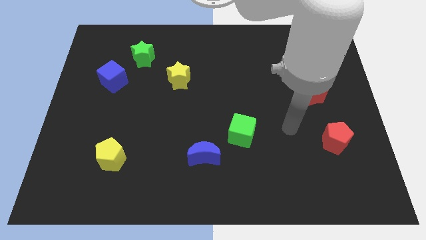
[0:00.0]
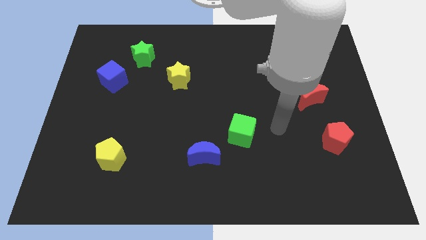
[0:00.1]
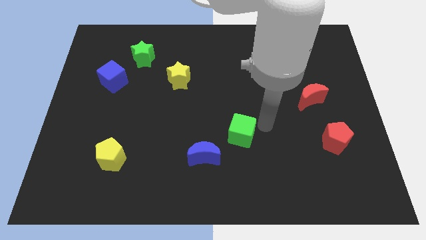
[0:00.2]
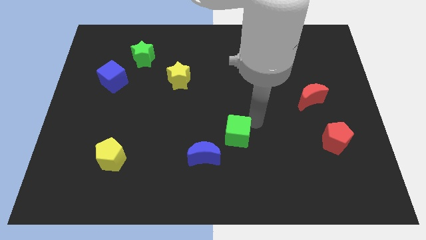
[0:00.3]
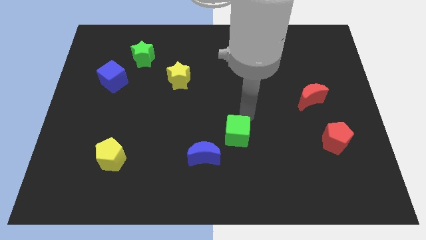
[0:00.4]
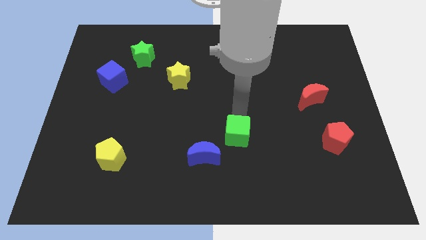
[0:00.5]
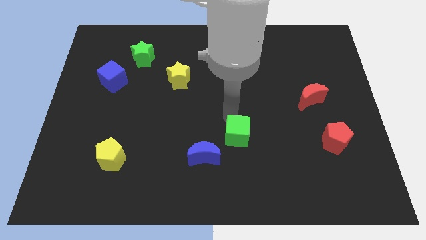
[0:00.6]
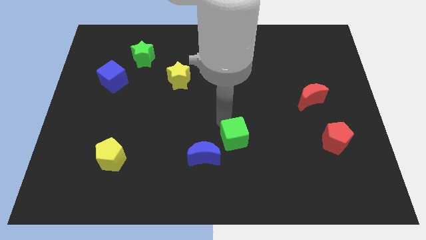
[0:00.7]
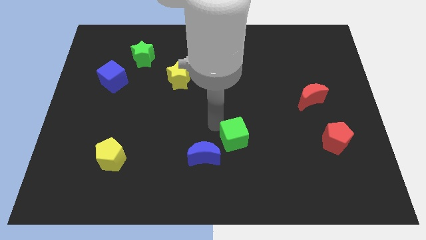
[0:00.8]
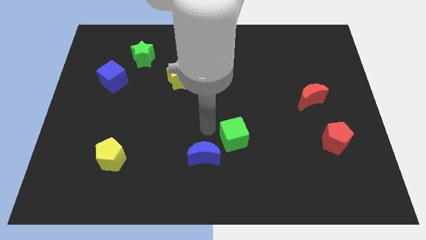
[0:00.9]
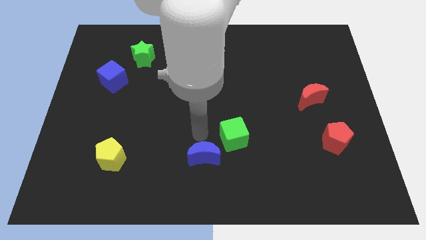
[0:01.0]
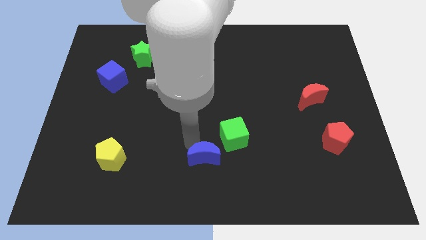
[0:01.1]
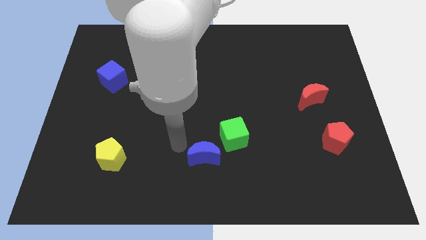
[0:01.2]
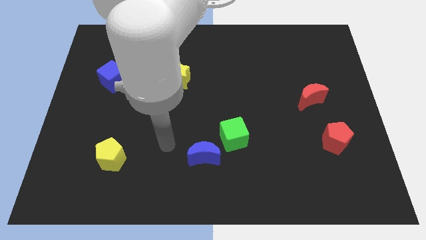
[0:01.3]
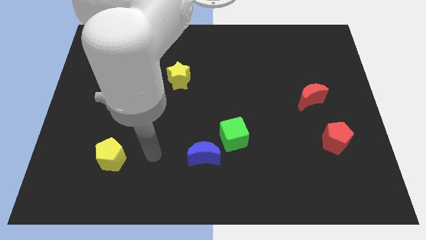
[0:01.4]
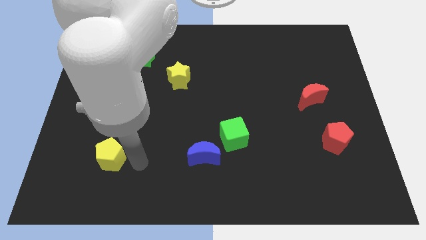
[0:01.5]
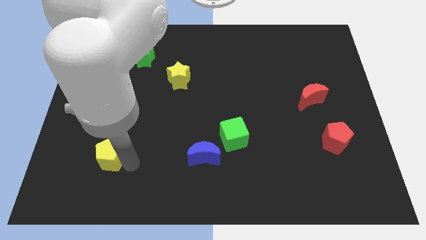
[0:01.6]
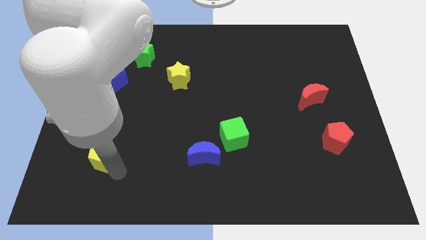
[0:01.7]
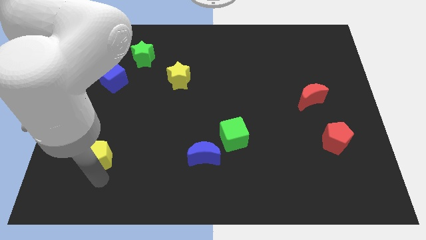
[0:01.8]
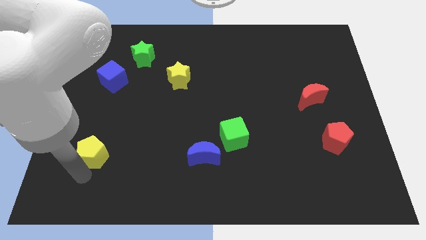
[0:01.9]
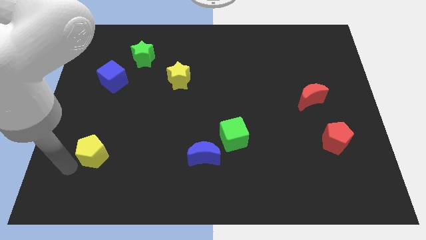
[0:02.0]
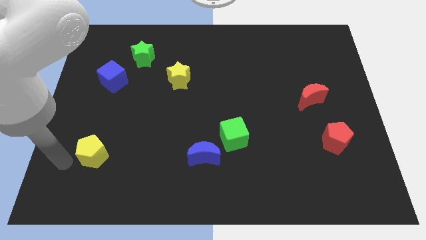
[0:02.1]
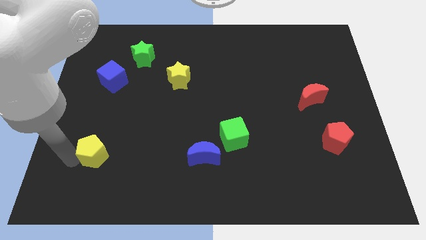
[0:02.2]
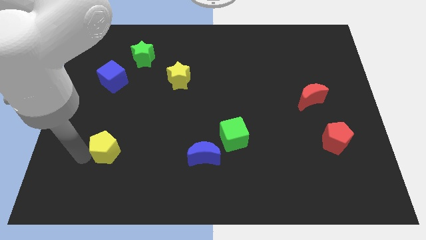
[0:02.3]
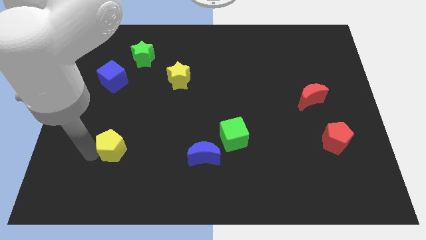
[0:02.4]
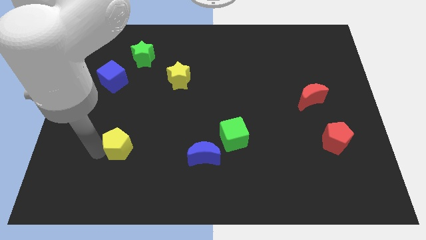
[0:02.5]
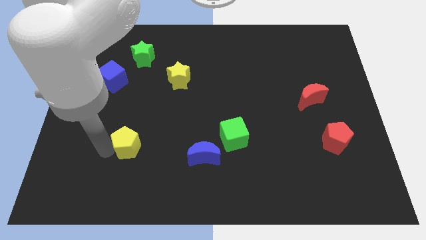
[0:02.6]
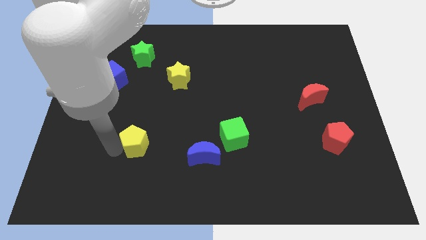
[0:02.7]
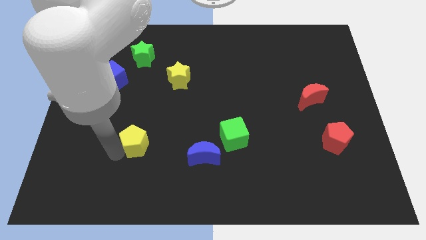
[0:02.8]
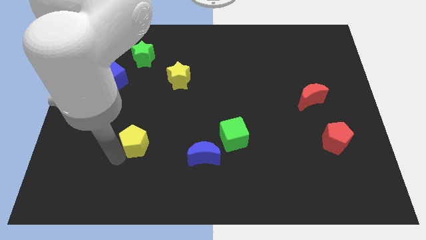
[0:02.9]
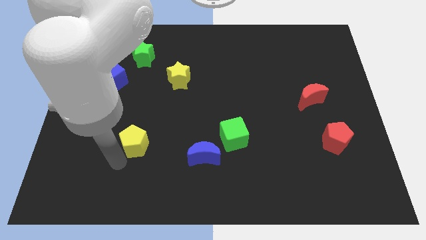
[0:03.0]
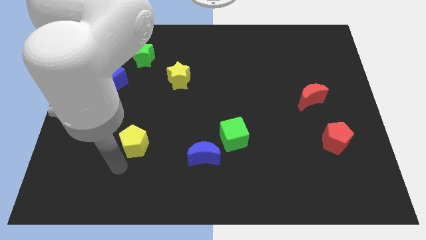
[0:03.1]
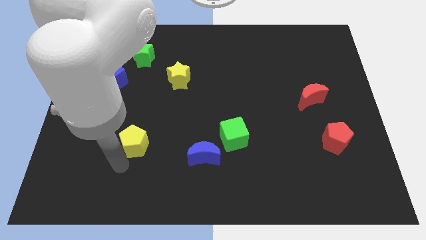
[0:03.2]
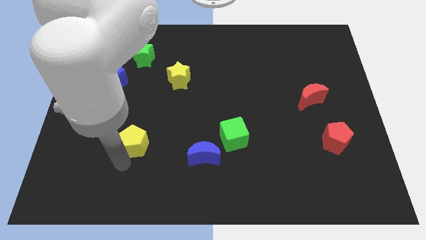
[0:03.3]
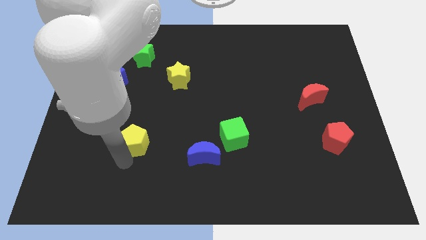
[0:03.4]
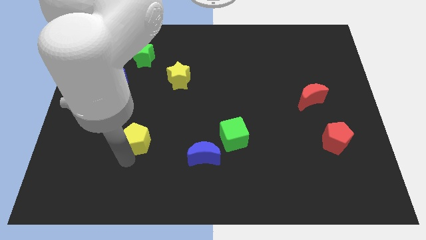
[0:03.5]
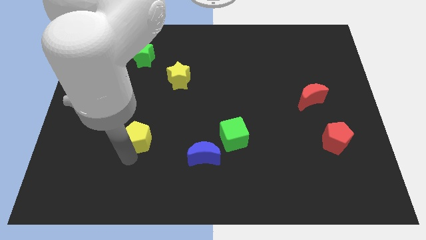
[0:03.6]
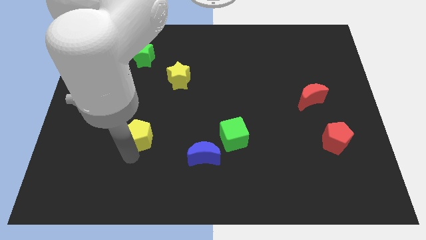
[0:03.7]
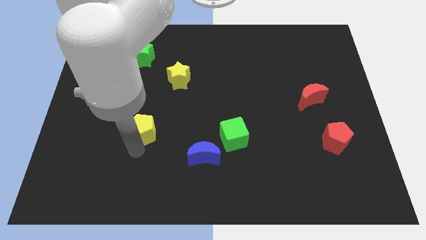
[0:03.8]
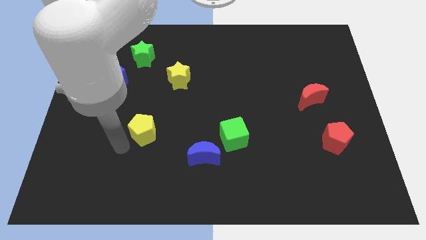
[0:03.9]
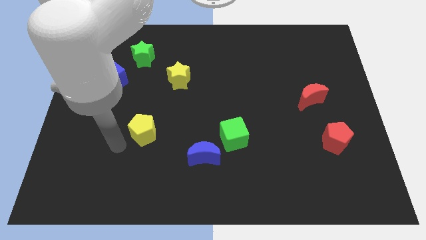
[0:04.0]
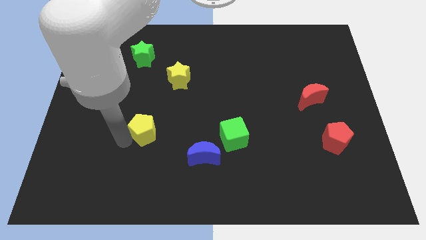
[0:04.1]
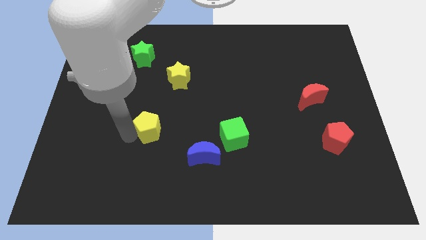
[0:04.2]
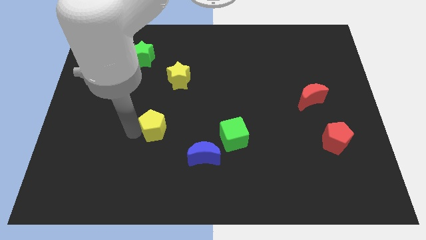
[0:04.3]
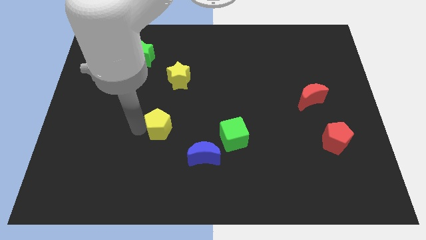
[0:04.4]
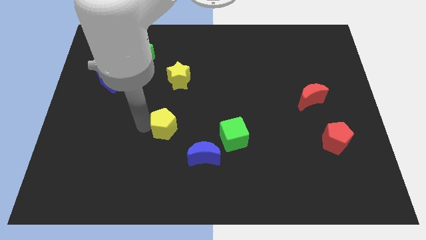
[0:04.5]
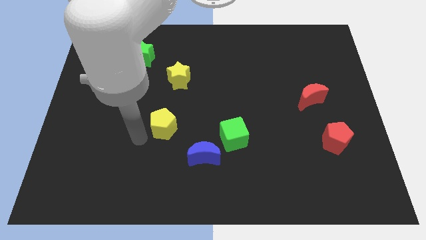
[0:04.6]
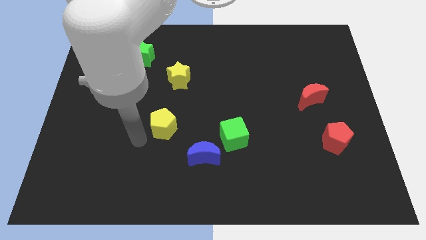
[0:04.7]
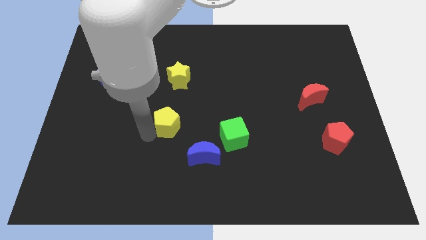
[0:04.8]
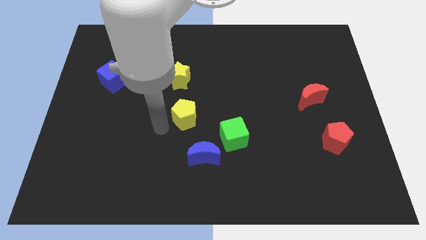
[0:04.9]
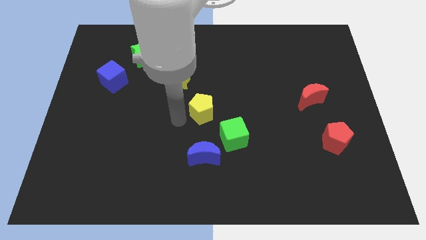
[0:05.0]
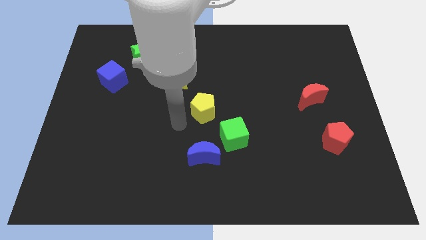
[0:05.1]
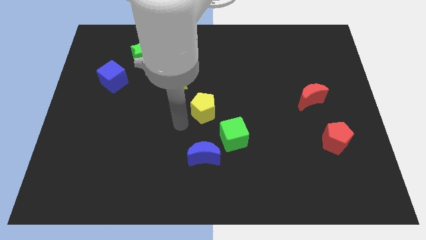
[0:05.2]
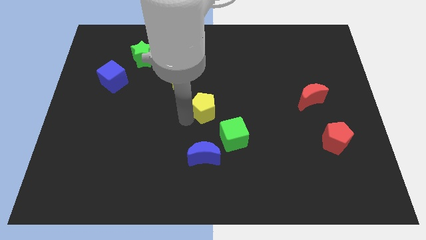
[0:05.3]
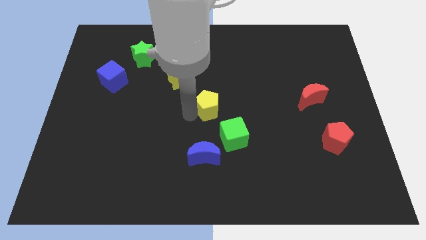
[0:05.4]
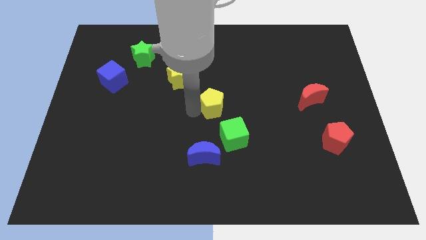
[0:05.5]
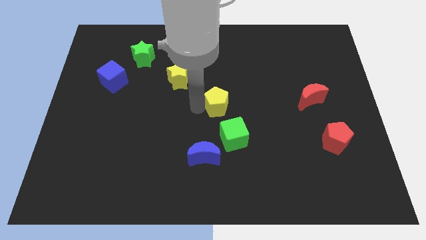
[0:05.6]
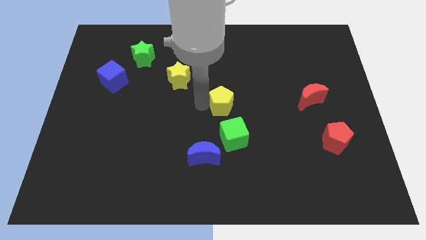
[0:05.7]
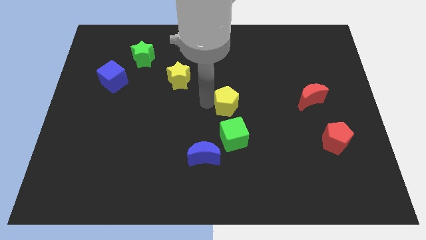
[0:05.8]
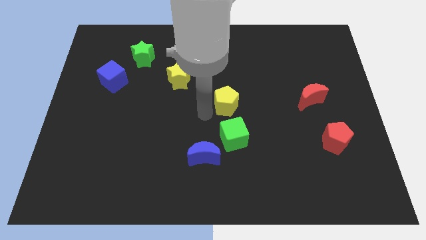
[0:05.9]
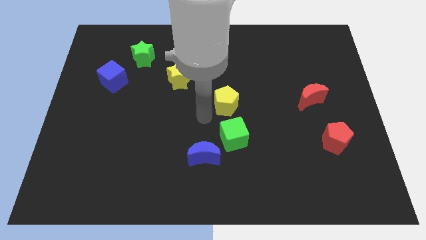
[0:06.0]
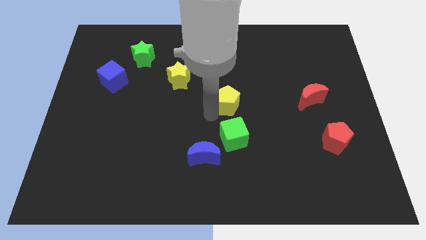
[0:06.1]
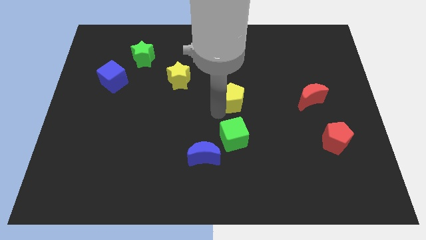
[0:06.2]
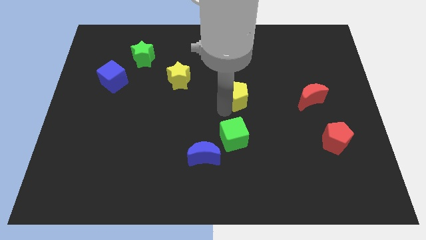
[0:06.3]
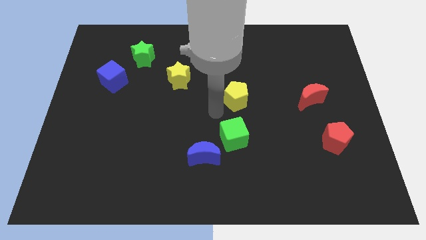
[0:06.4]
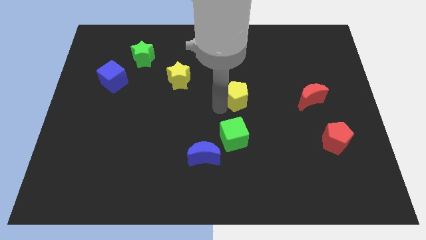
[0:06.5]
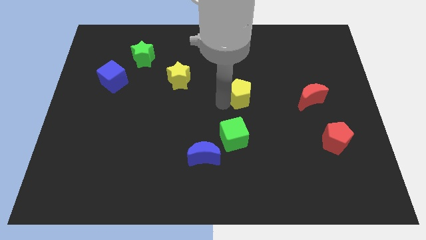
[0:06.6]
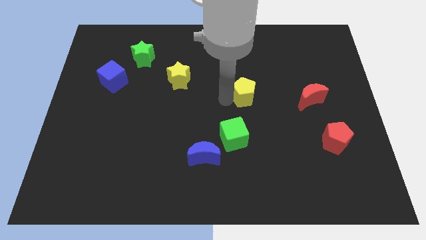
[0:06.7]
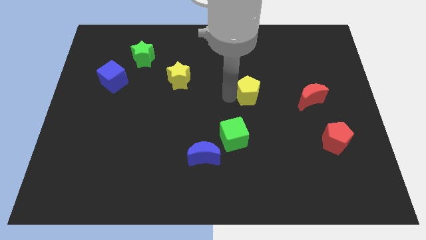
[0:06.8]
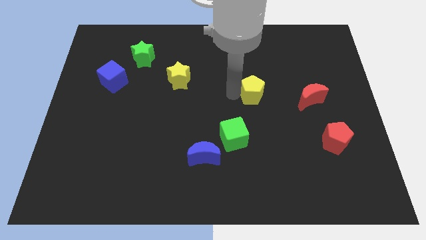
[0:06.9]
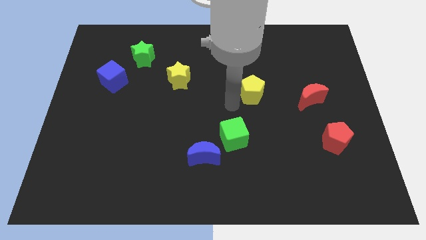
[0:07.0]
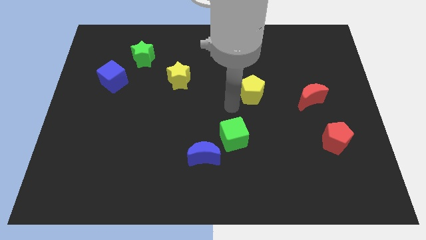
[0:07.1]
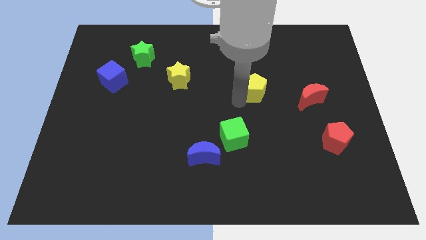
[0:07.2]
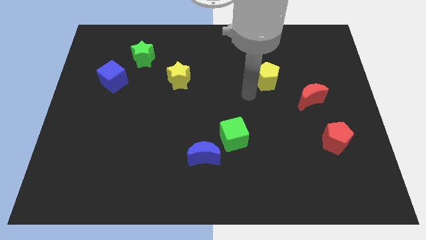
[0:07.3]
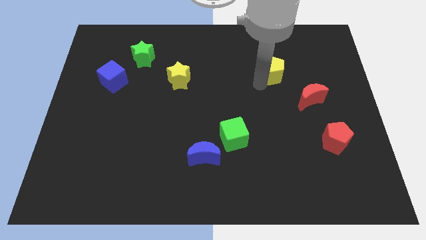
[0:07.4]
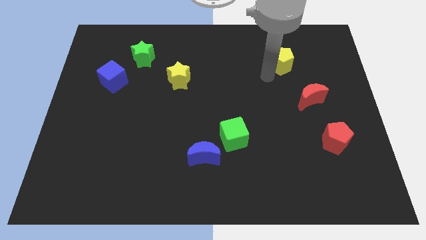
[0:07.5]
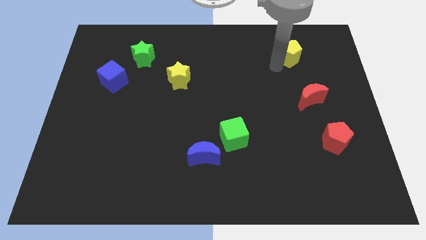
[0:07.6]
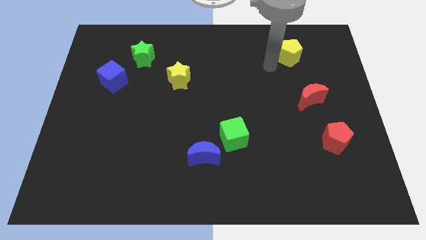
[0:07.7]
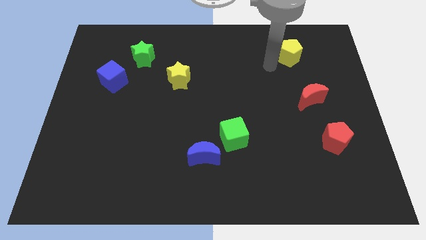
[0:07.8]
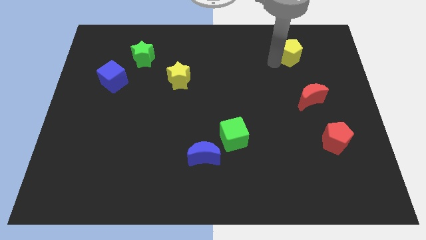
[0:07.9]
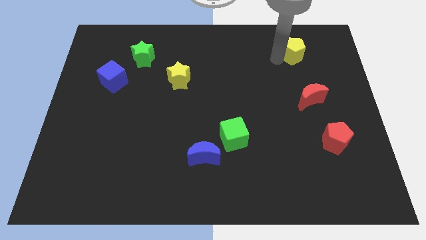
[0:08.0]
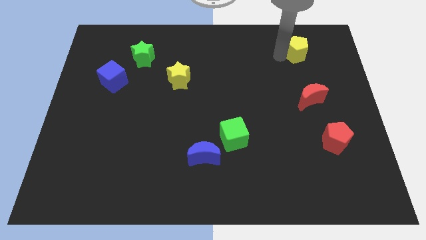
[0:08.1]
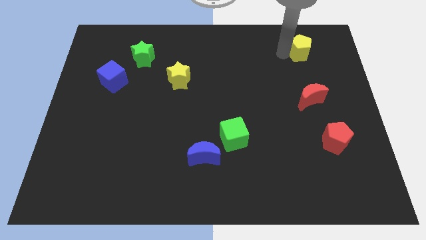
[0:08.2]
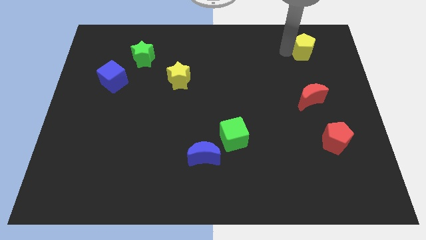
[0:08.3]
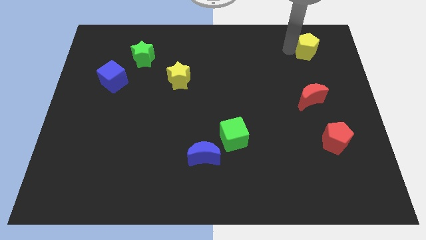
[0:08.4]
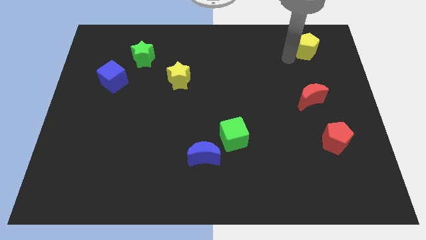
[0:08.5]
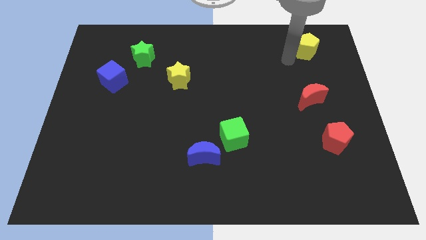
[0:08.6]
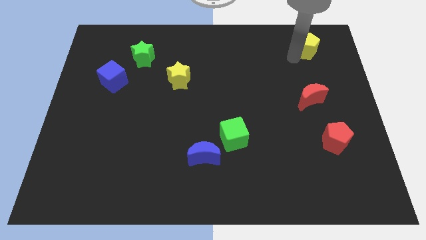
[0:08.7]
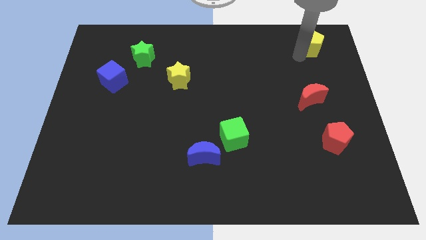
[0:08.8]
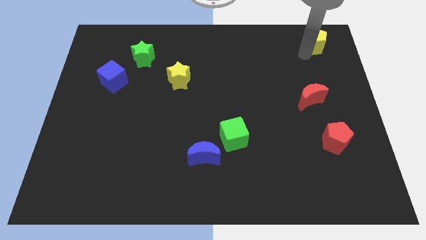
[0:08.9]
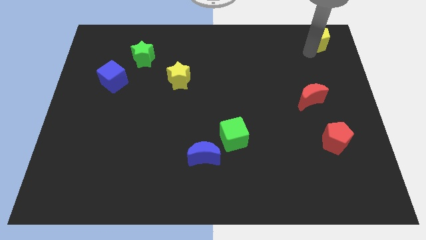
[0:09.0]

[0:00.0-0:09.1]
push the yellow pentagon to the top right
